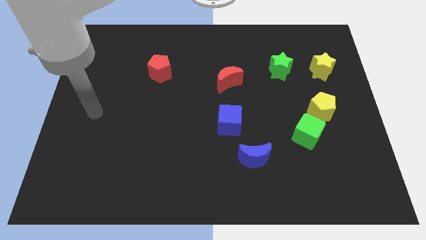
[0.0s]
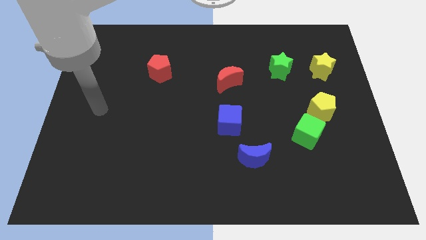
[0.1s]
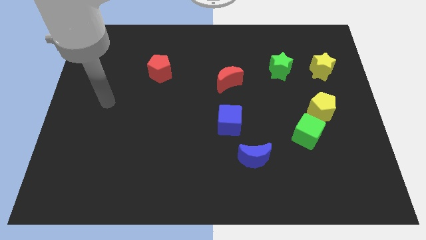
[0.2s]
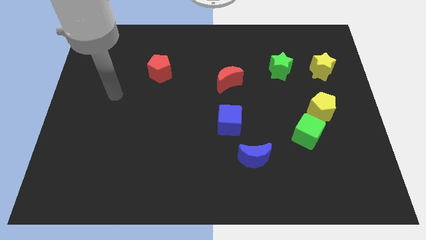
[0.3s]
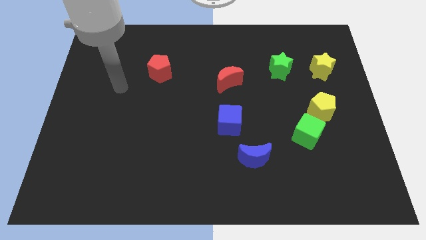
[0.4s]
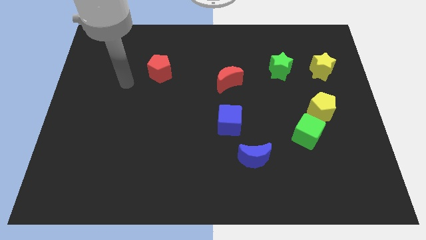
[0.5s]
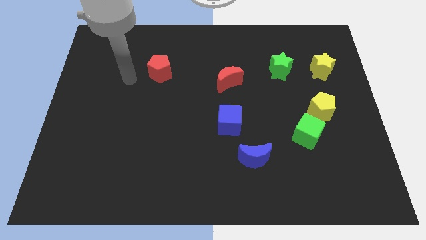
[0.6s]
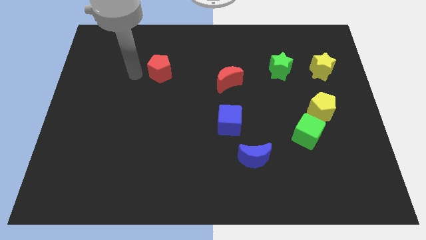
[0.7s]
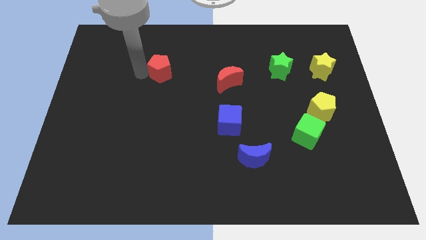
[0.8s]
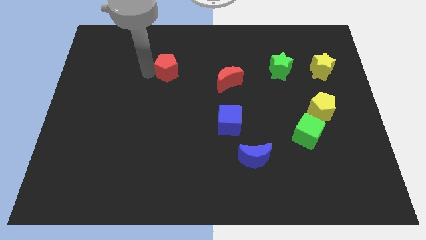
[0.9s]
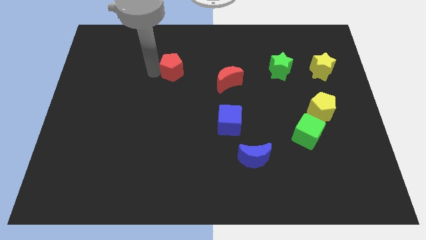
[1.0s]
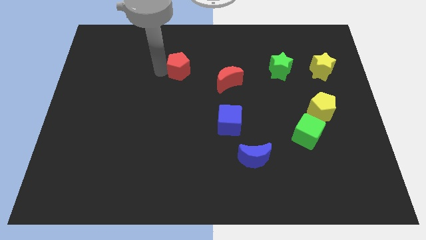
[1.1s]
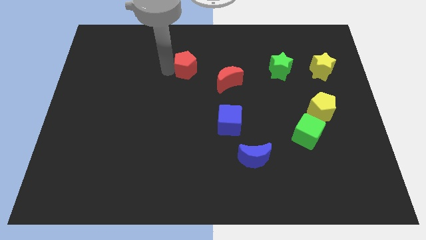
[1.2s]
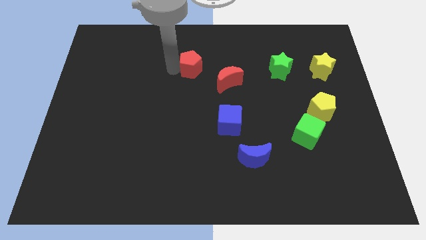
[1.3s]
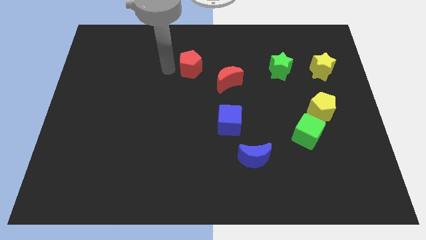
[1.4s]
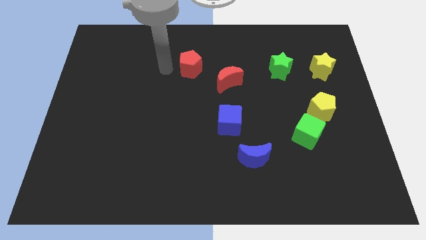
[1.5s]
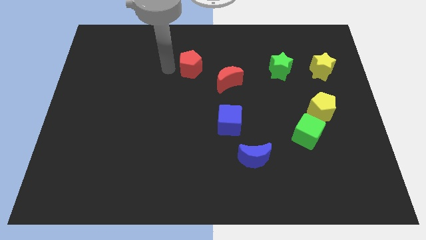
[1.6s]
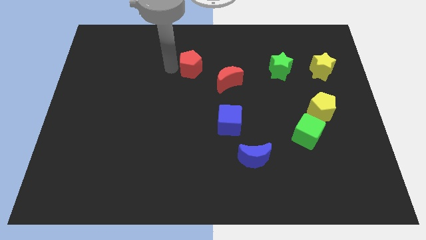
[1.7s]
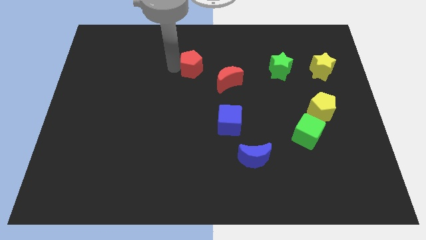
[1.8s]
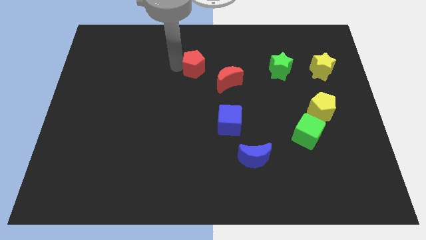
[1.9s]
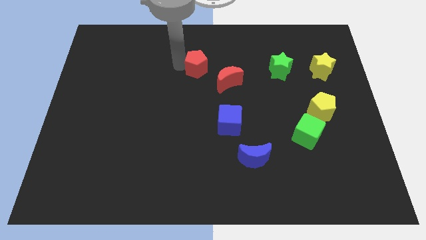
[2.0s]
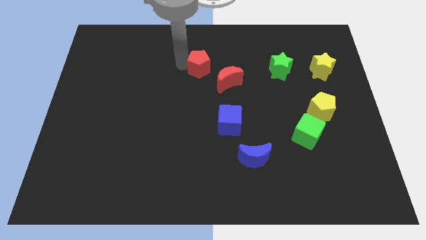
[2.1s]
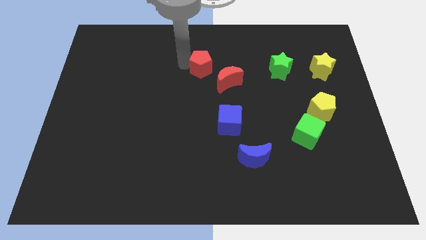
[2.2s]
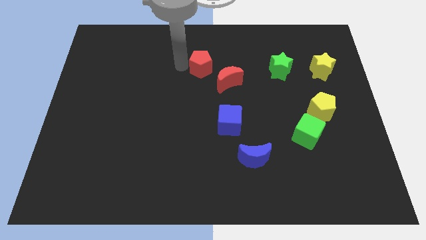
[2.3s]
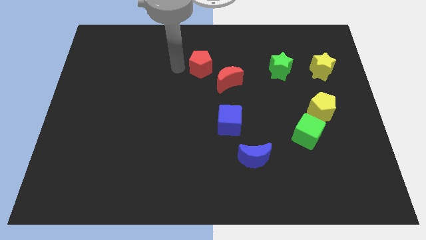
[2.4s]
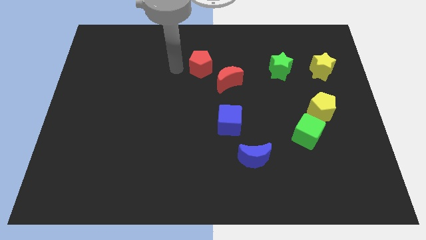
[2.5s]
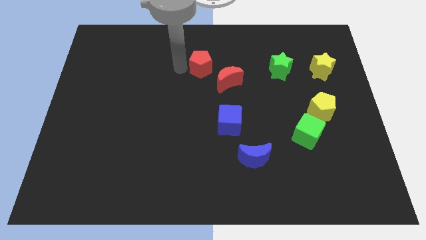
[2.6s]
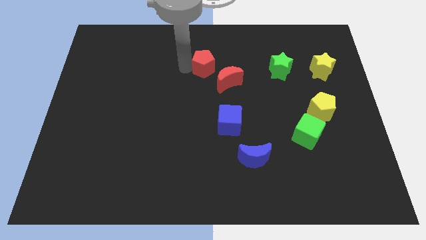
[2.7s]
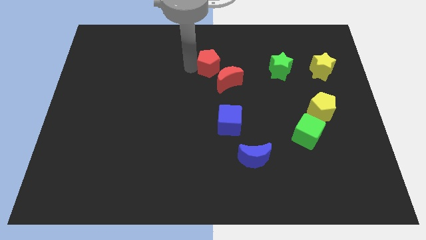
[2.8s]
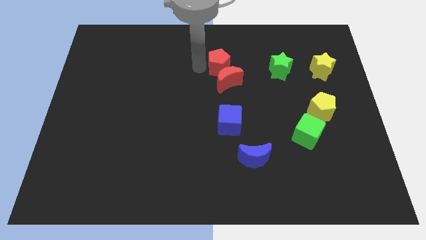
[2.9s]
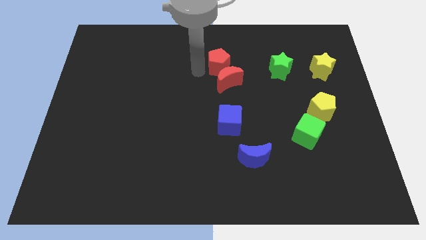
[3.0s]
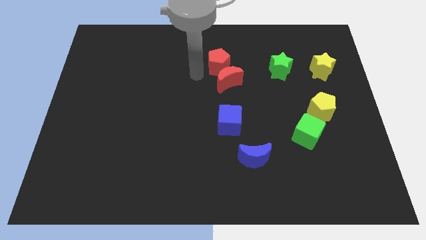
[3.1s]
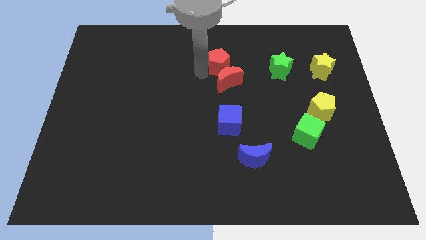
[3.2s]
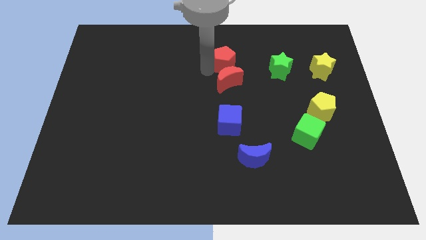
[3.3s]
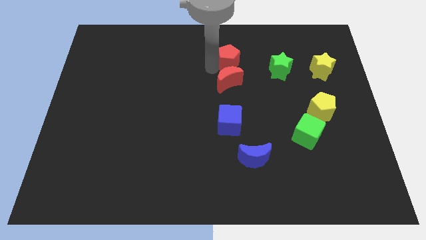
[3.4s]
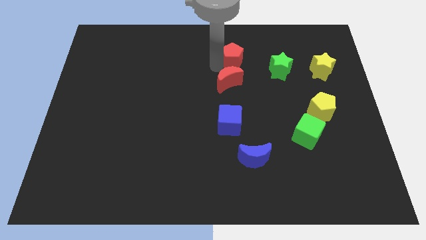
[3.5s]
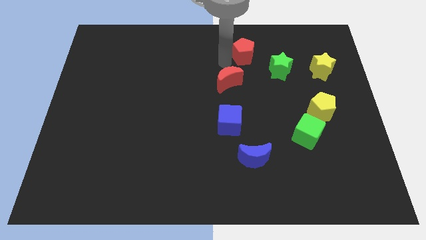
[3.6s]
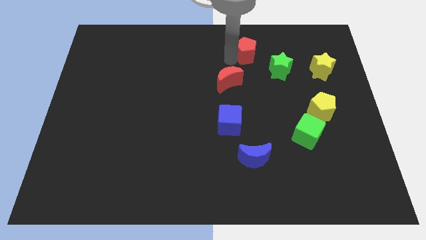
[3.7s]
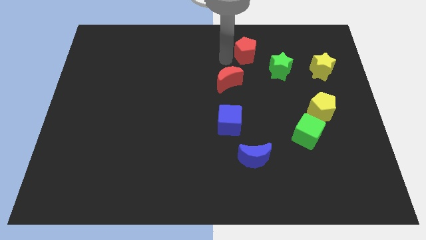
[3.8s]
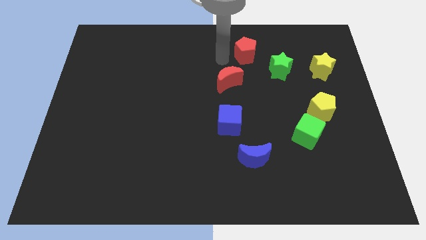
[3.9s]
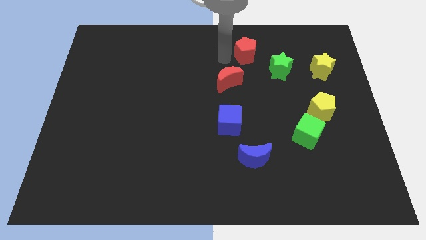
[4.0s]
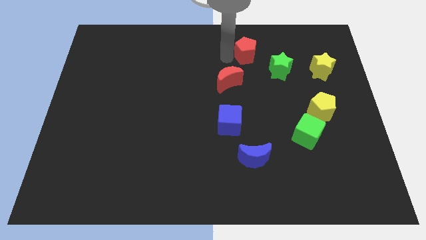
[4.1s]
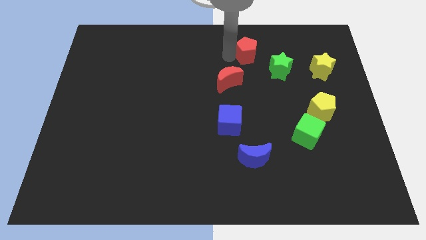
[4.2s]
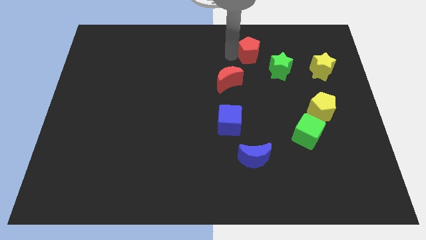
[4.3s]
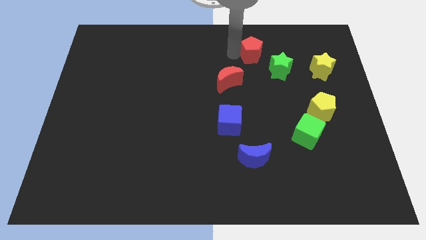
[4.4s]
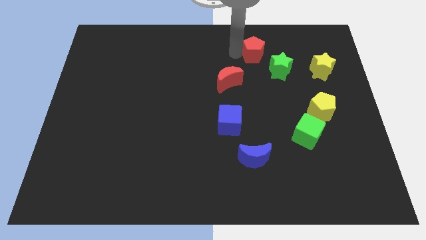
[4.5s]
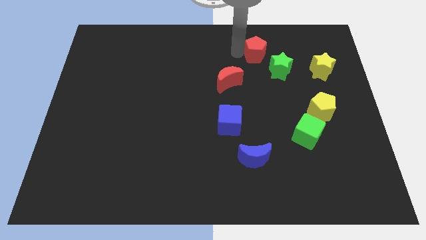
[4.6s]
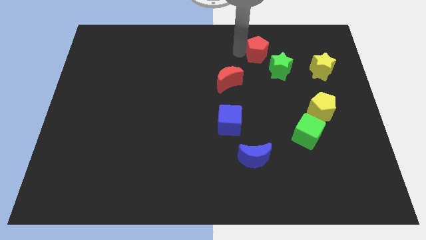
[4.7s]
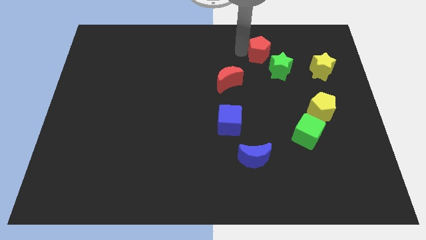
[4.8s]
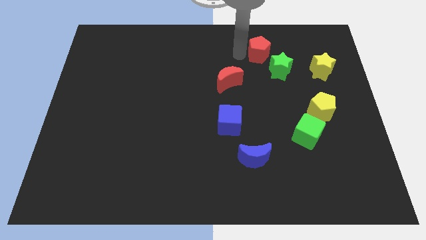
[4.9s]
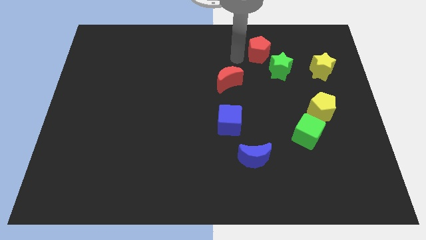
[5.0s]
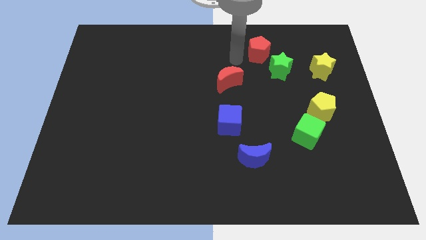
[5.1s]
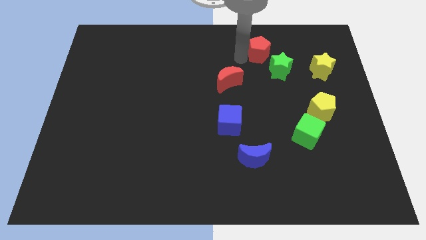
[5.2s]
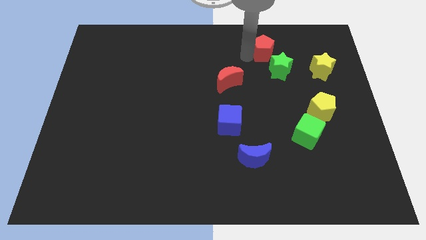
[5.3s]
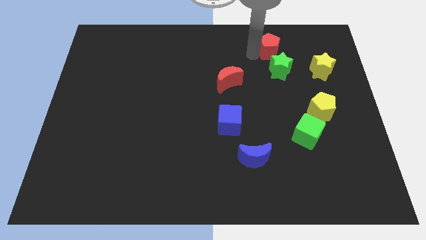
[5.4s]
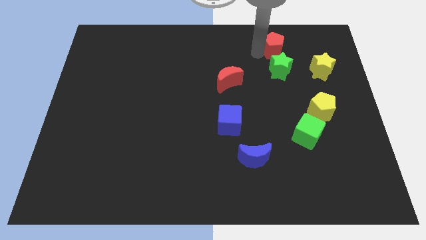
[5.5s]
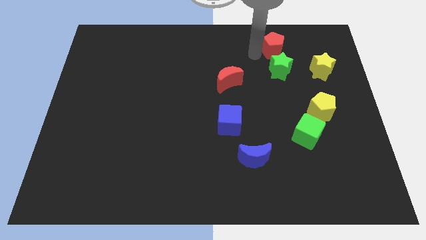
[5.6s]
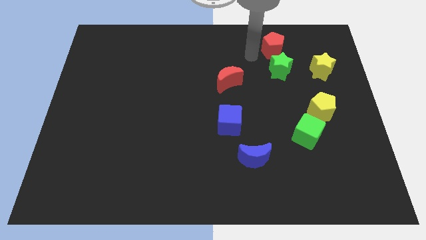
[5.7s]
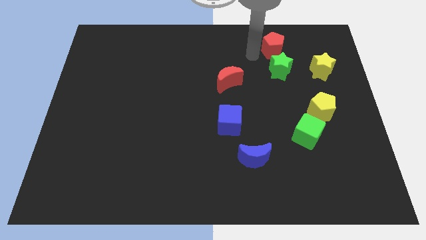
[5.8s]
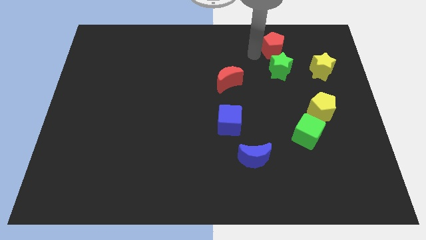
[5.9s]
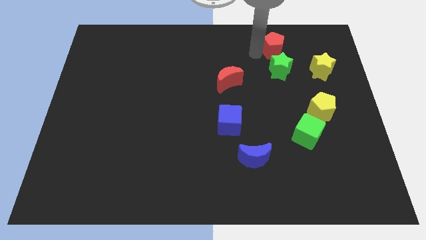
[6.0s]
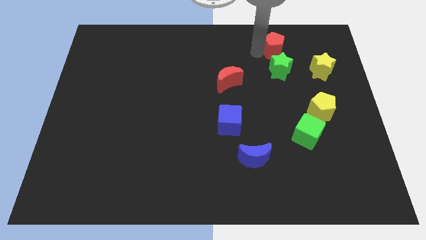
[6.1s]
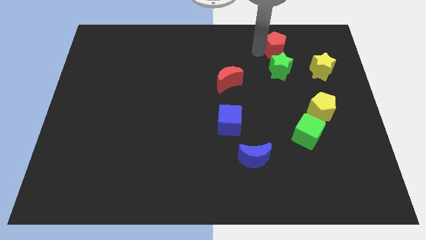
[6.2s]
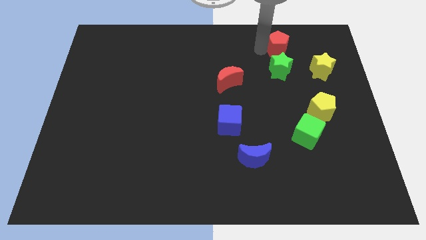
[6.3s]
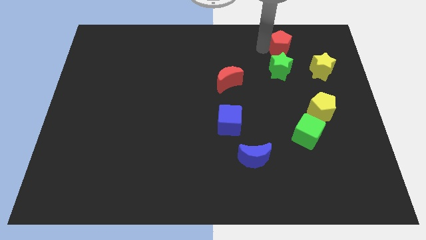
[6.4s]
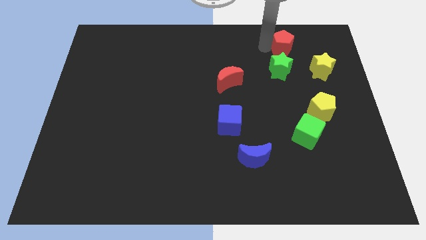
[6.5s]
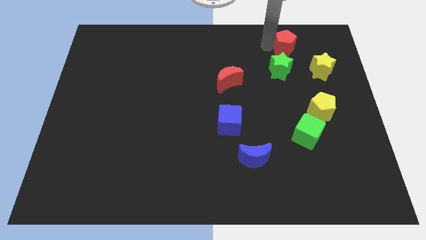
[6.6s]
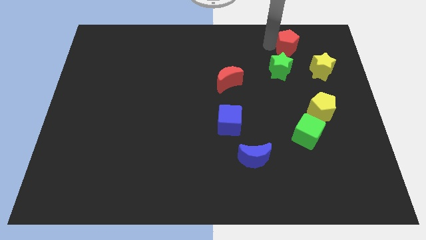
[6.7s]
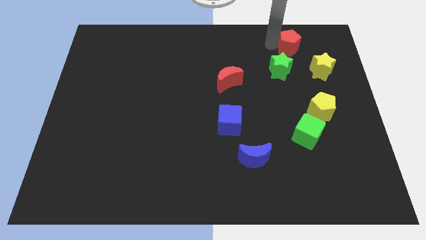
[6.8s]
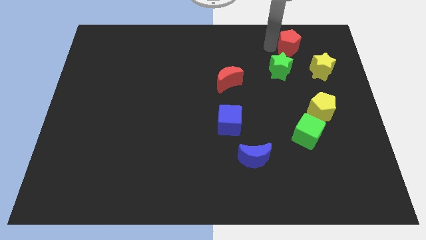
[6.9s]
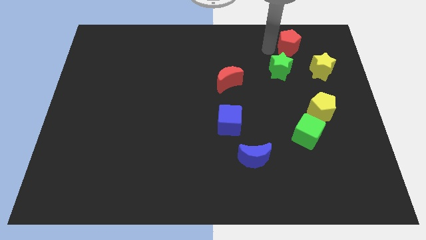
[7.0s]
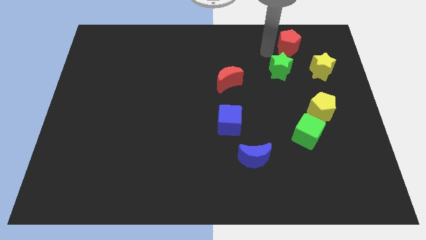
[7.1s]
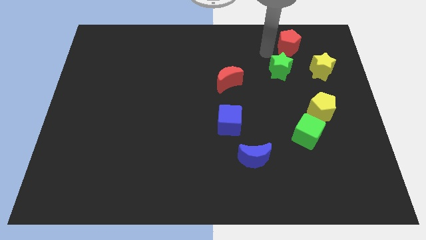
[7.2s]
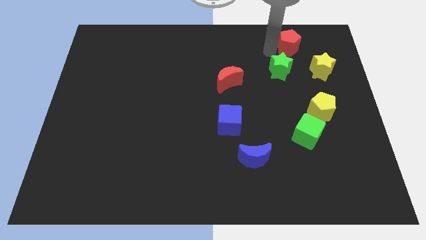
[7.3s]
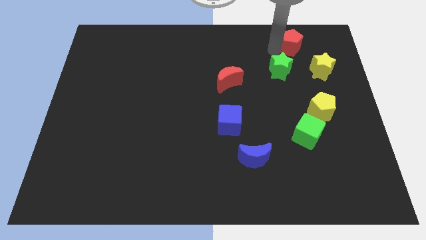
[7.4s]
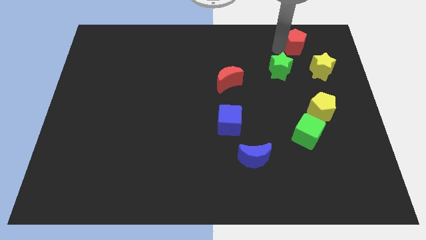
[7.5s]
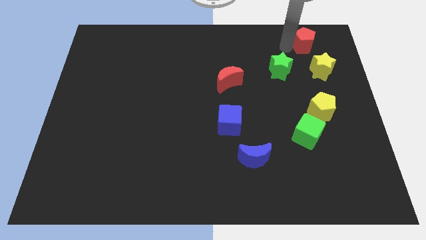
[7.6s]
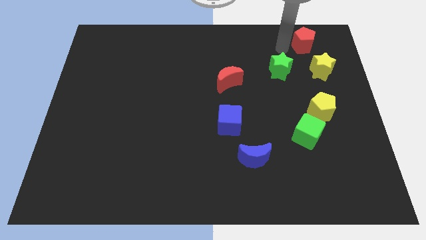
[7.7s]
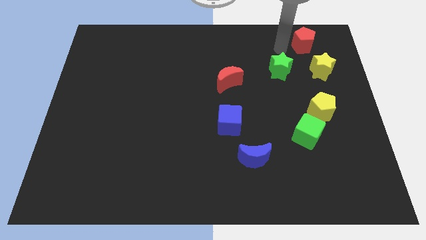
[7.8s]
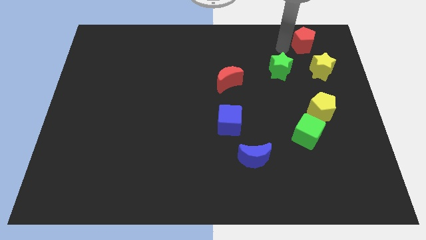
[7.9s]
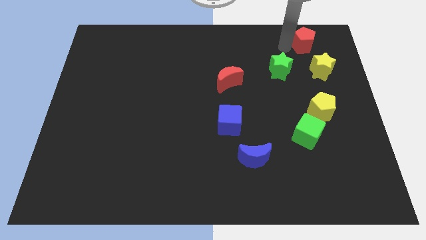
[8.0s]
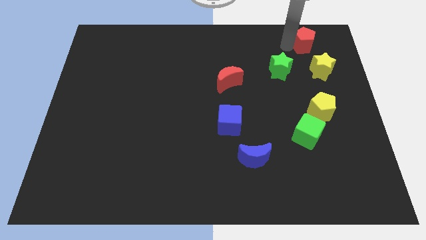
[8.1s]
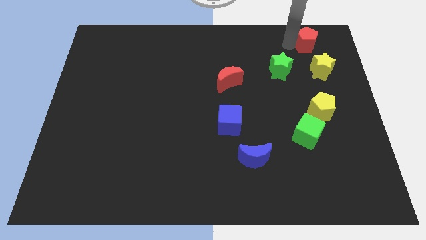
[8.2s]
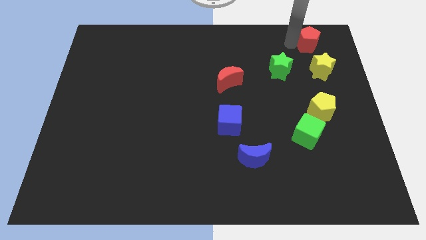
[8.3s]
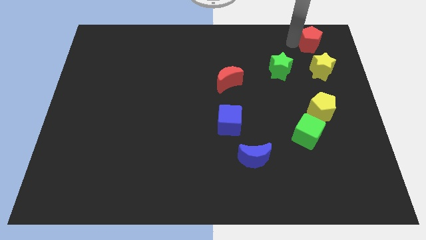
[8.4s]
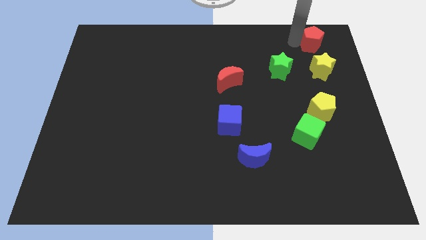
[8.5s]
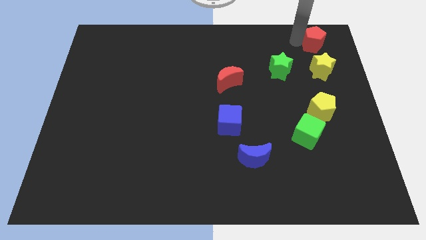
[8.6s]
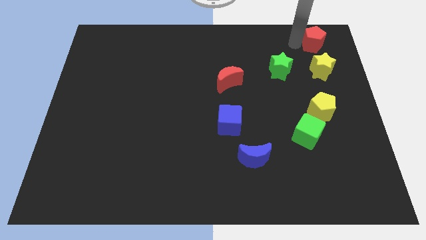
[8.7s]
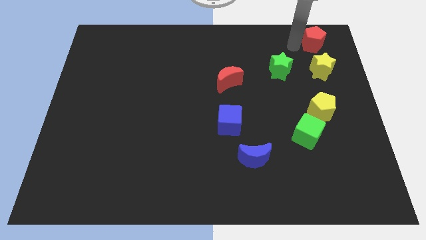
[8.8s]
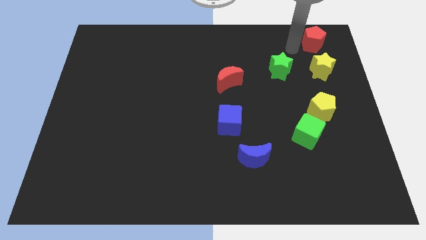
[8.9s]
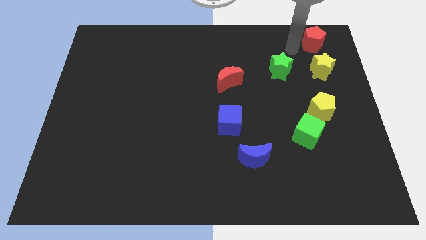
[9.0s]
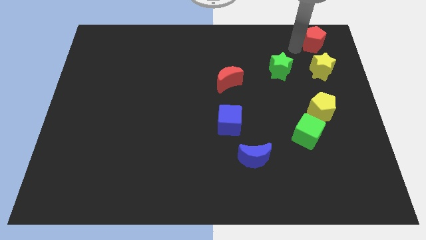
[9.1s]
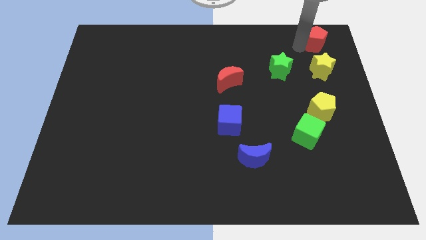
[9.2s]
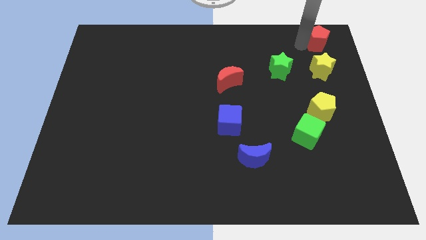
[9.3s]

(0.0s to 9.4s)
put the red pentagon to the top right
